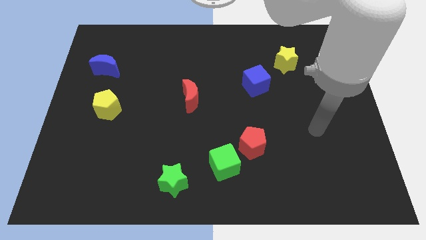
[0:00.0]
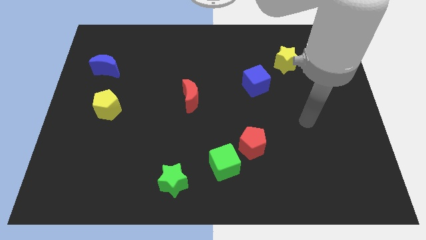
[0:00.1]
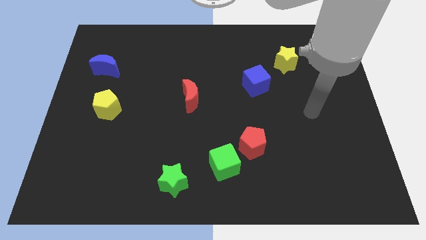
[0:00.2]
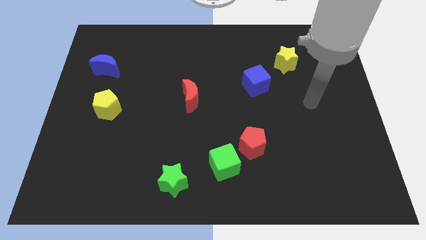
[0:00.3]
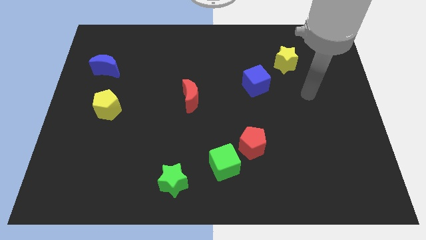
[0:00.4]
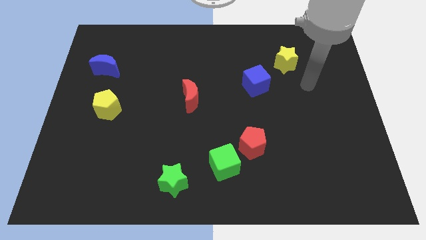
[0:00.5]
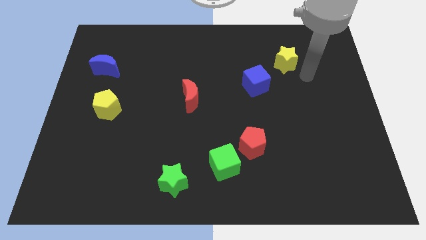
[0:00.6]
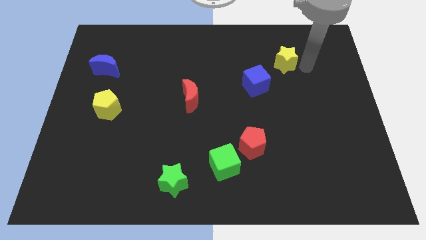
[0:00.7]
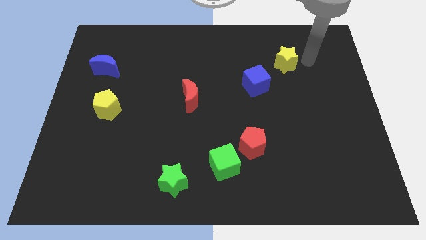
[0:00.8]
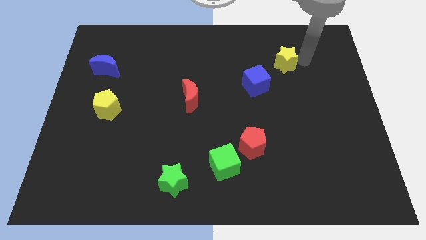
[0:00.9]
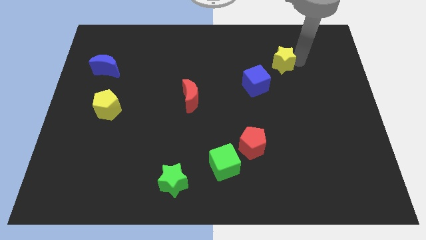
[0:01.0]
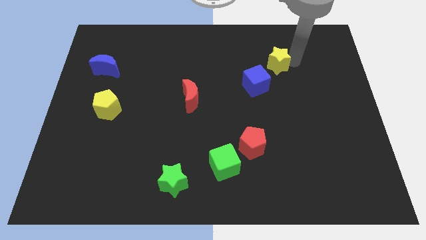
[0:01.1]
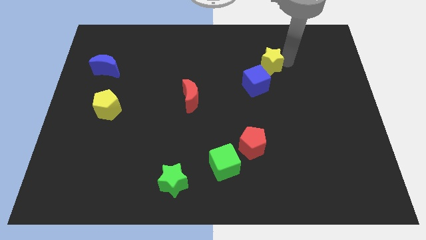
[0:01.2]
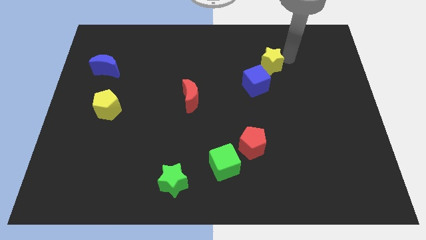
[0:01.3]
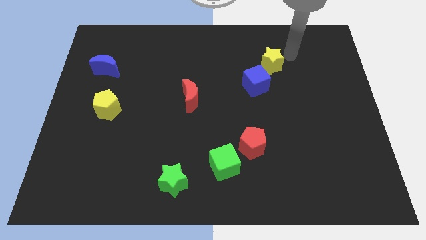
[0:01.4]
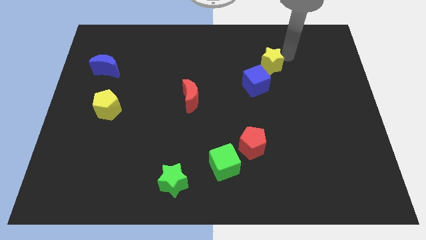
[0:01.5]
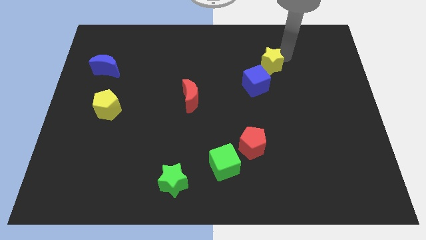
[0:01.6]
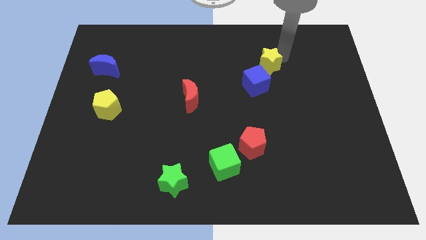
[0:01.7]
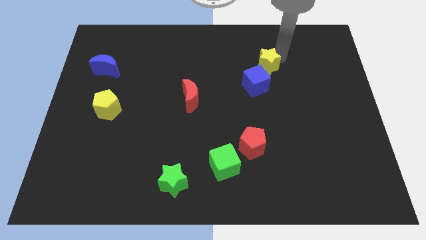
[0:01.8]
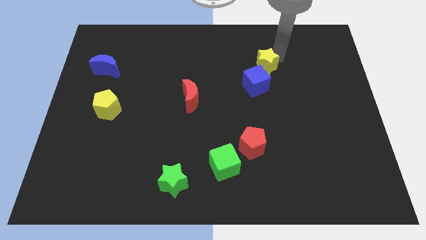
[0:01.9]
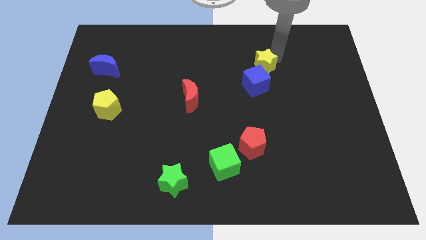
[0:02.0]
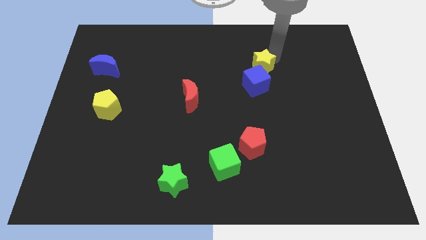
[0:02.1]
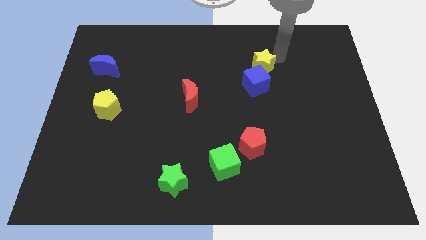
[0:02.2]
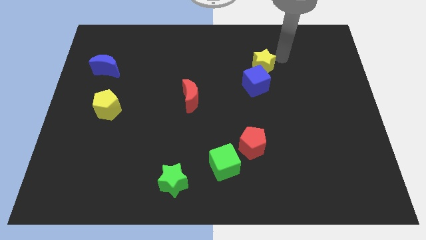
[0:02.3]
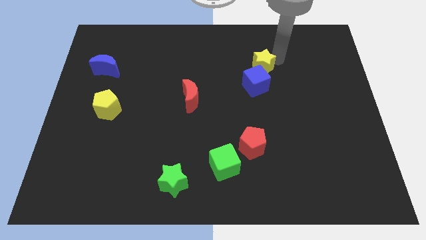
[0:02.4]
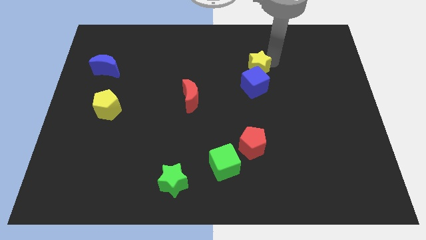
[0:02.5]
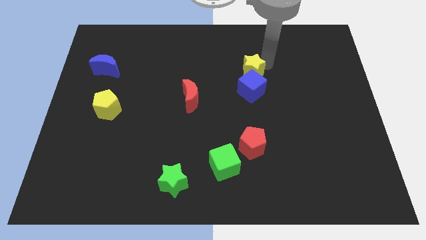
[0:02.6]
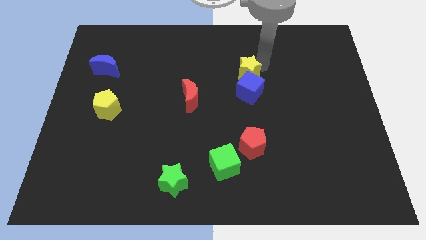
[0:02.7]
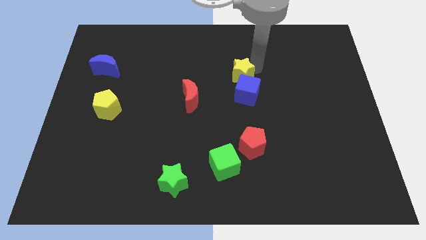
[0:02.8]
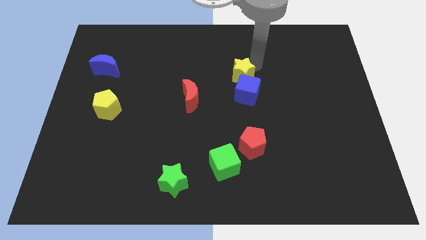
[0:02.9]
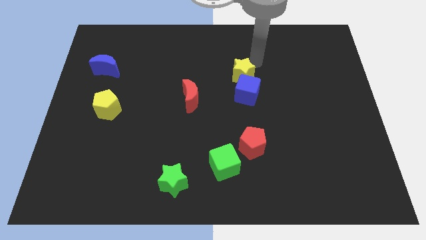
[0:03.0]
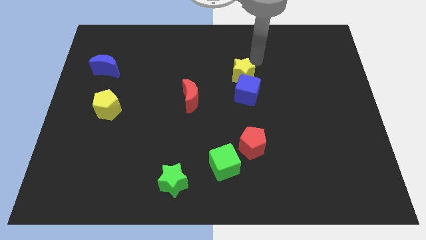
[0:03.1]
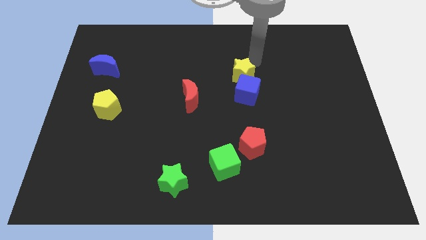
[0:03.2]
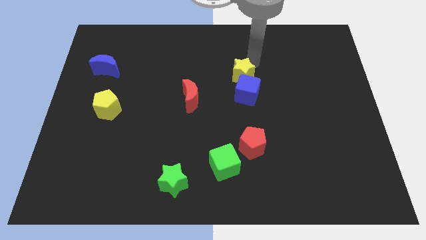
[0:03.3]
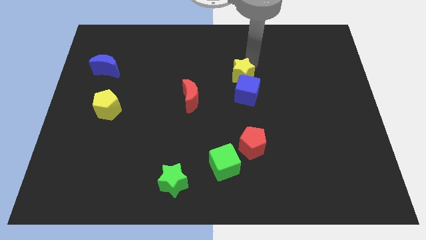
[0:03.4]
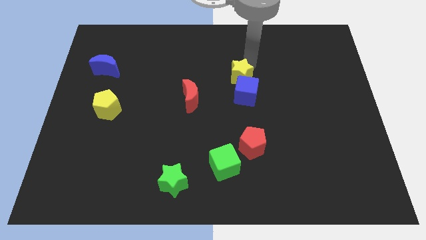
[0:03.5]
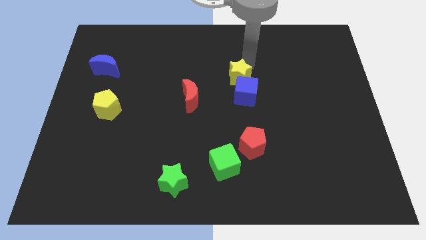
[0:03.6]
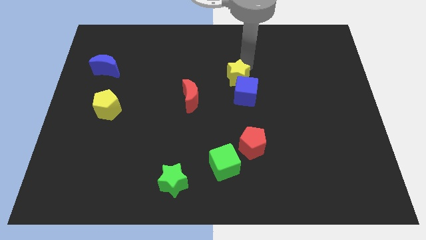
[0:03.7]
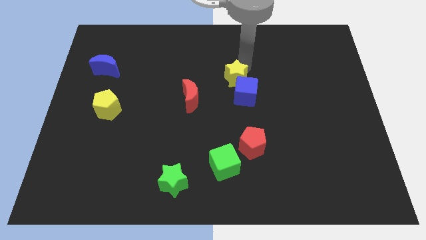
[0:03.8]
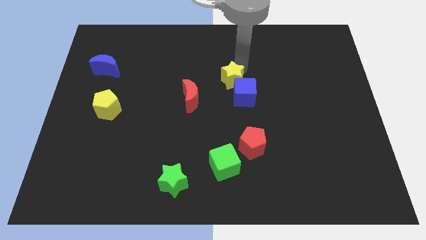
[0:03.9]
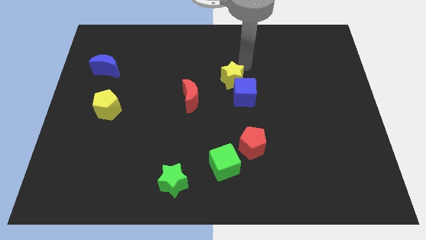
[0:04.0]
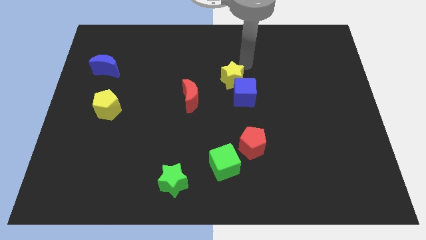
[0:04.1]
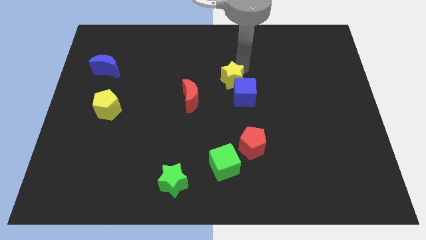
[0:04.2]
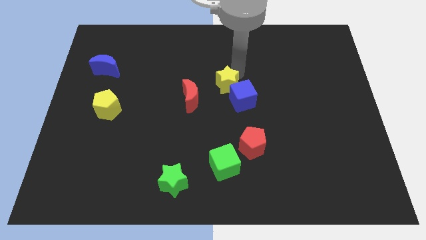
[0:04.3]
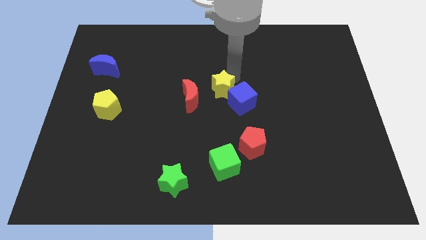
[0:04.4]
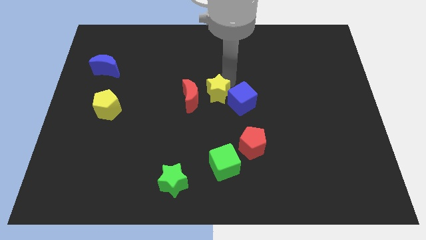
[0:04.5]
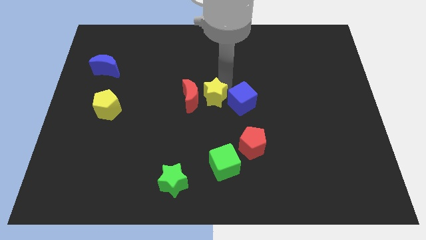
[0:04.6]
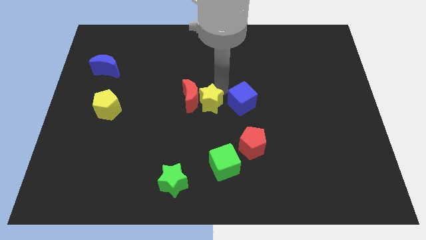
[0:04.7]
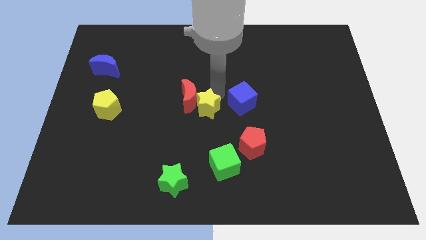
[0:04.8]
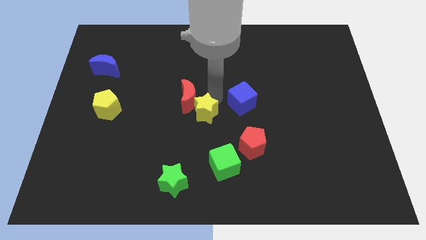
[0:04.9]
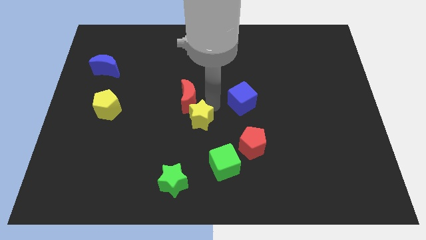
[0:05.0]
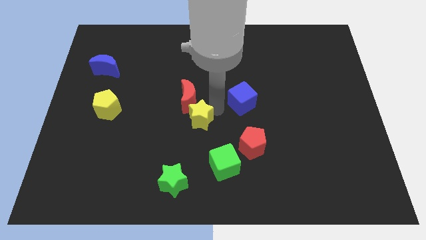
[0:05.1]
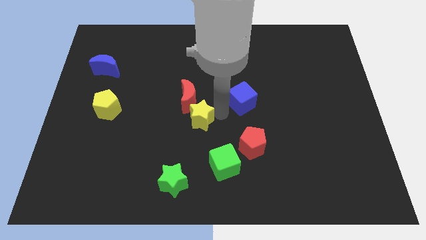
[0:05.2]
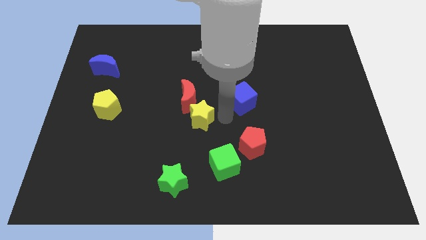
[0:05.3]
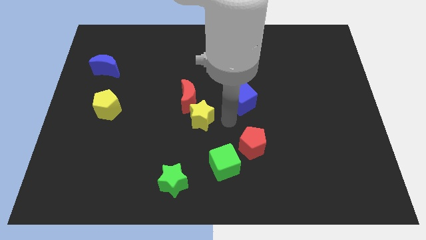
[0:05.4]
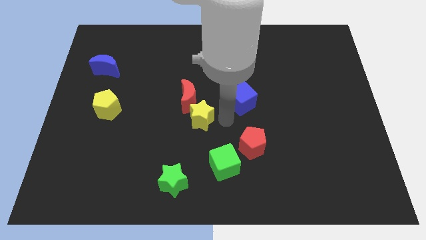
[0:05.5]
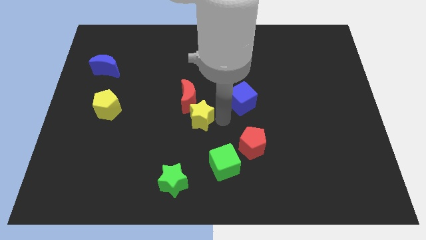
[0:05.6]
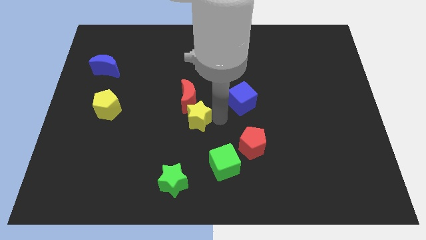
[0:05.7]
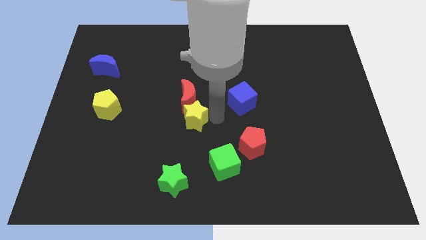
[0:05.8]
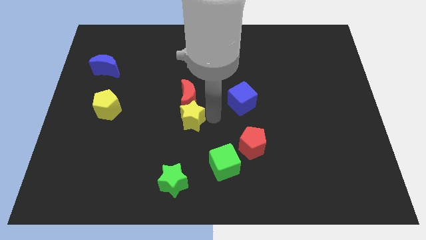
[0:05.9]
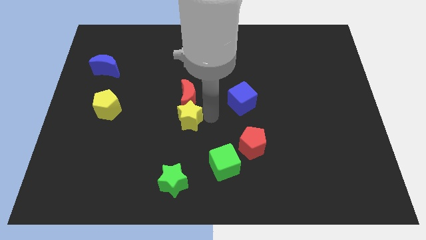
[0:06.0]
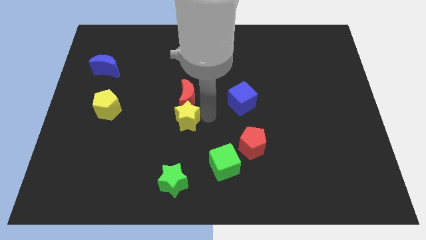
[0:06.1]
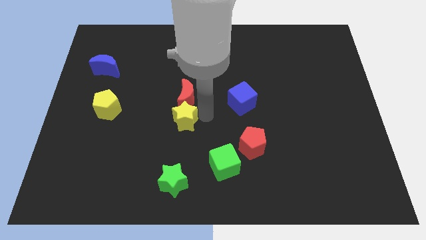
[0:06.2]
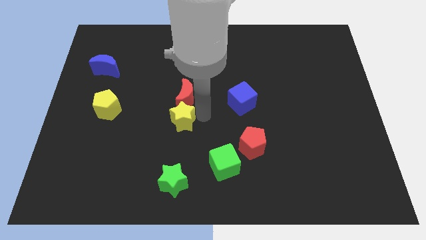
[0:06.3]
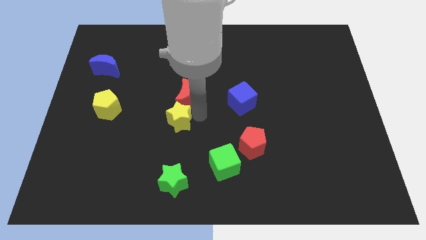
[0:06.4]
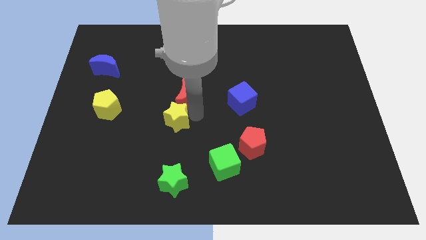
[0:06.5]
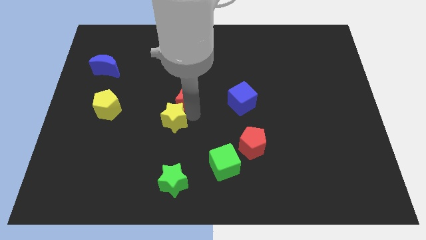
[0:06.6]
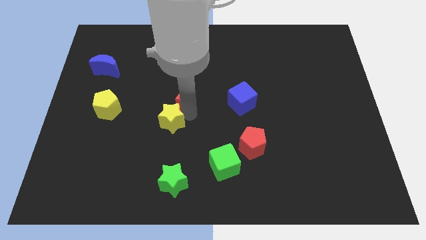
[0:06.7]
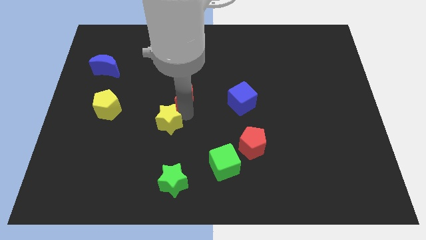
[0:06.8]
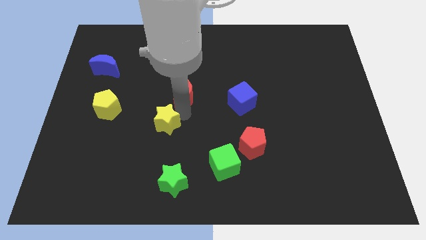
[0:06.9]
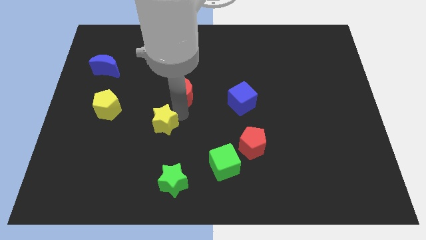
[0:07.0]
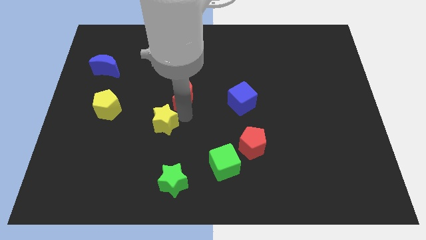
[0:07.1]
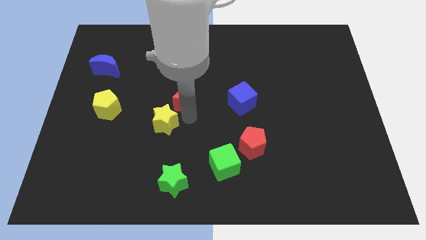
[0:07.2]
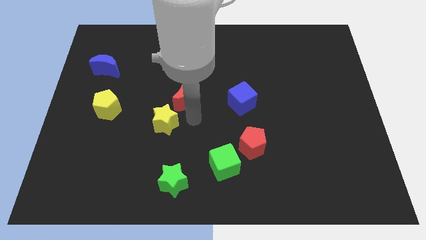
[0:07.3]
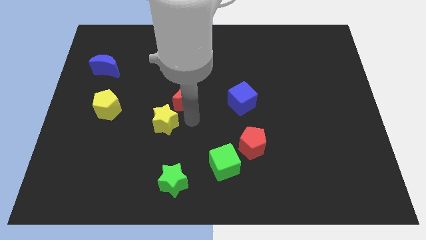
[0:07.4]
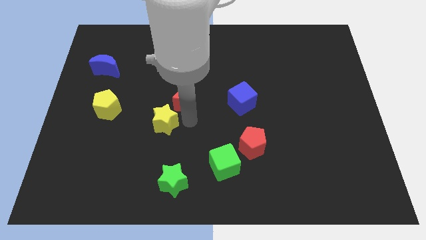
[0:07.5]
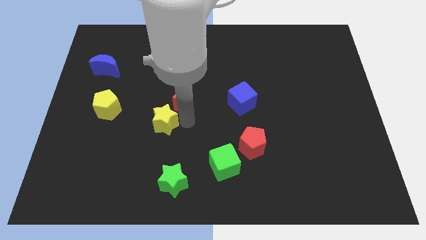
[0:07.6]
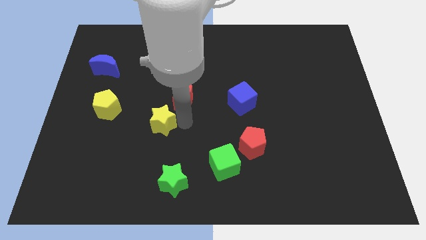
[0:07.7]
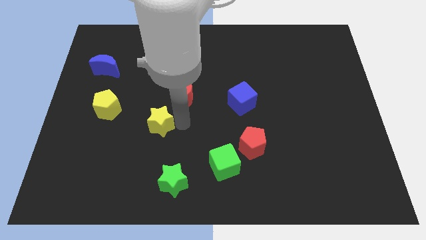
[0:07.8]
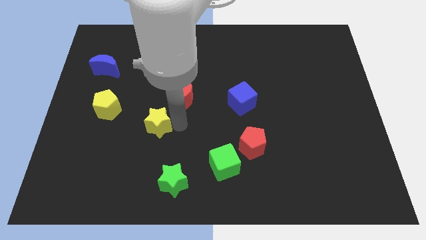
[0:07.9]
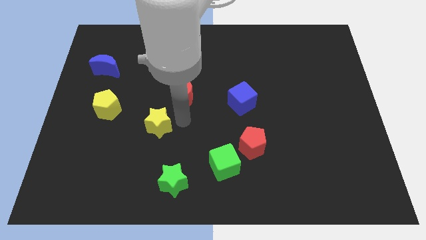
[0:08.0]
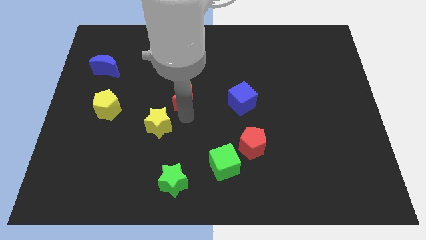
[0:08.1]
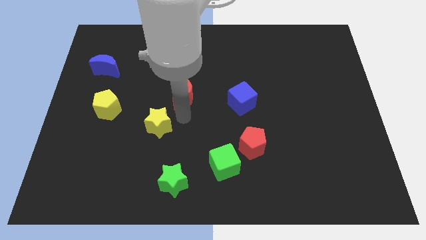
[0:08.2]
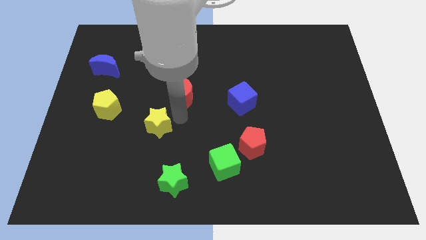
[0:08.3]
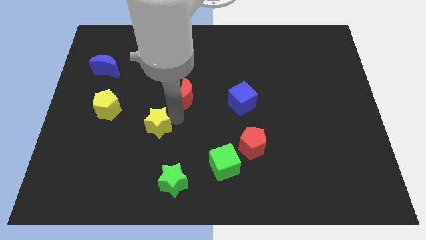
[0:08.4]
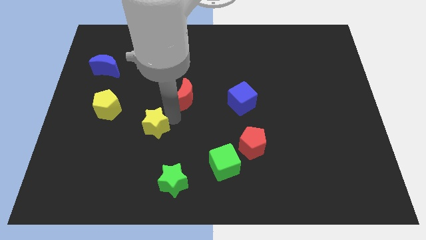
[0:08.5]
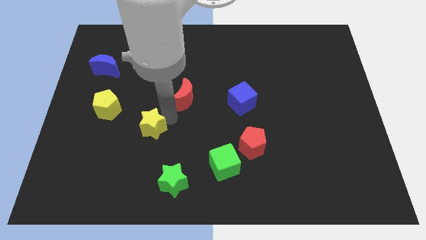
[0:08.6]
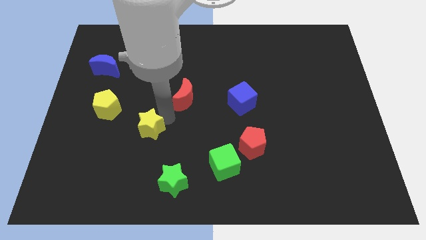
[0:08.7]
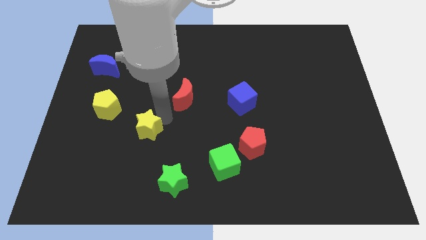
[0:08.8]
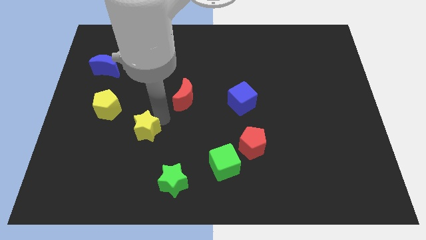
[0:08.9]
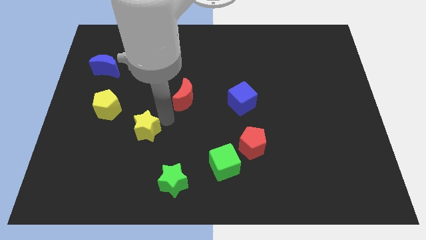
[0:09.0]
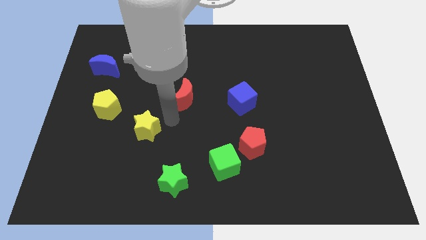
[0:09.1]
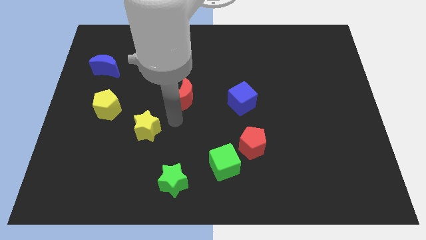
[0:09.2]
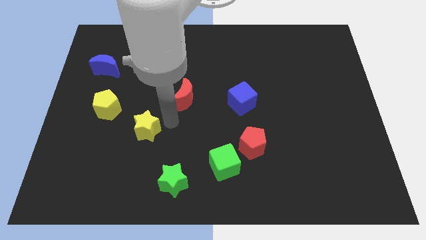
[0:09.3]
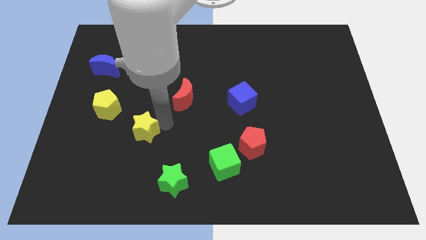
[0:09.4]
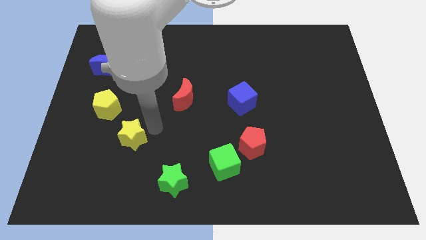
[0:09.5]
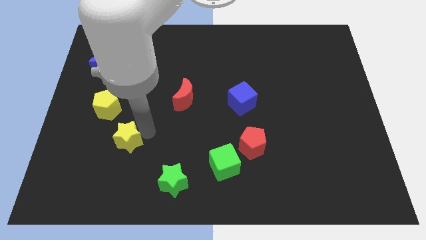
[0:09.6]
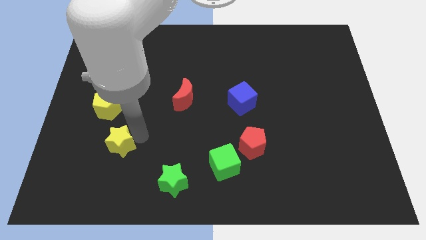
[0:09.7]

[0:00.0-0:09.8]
put the yellow star to the bottom of the yellow pentagon
